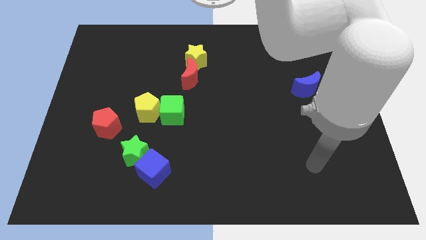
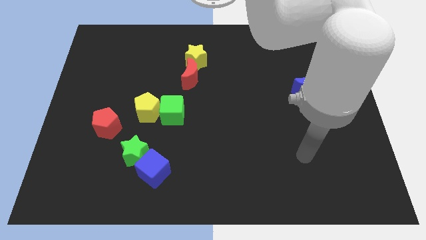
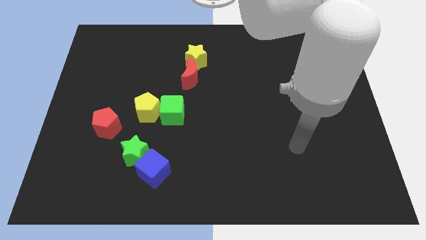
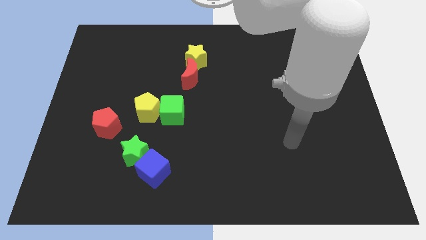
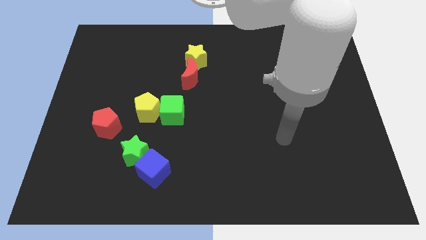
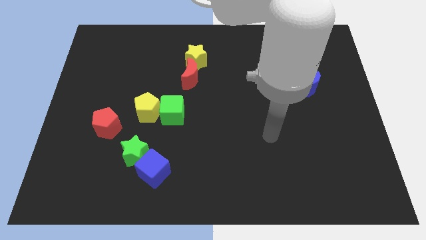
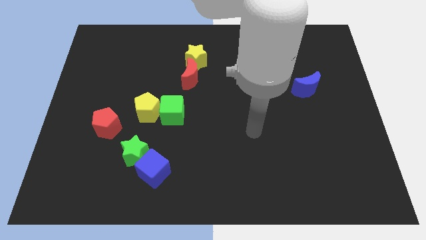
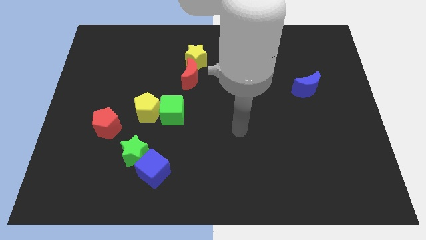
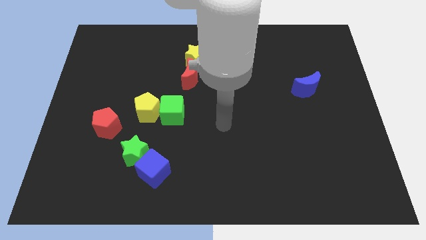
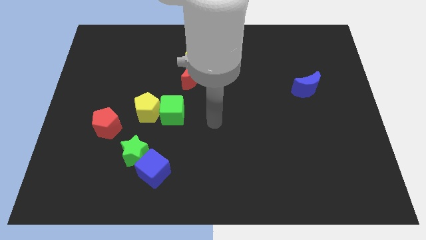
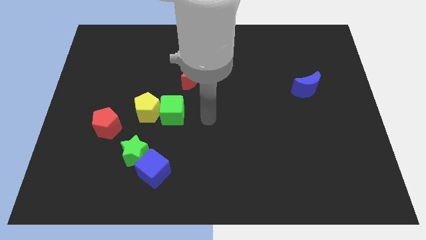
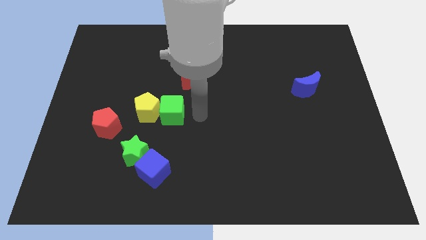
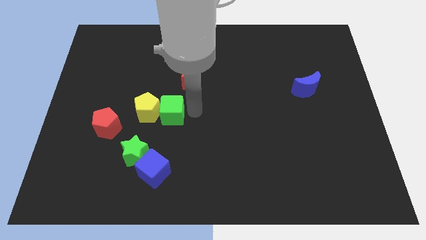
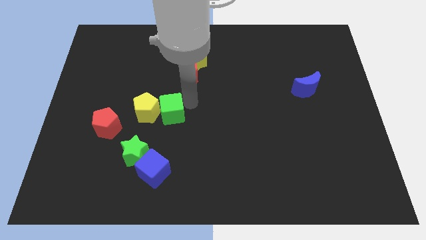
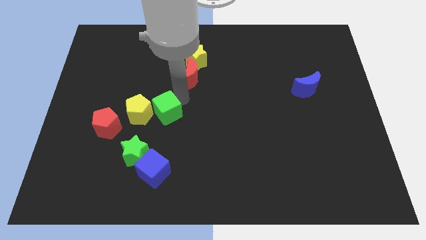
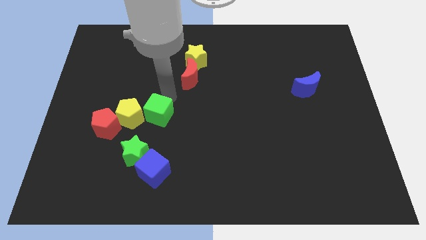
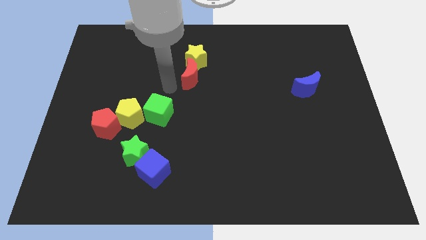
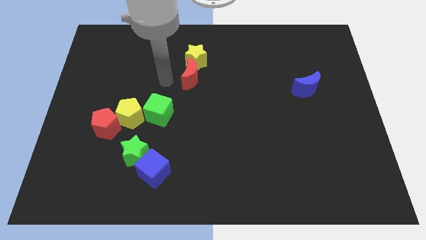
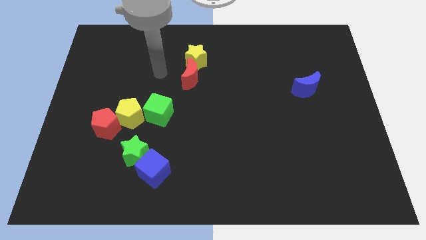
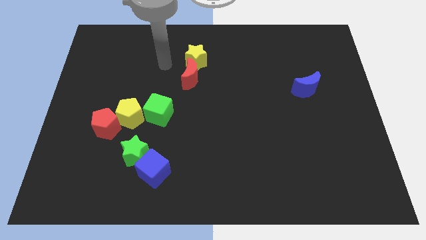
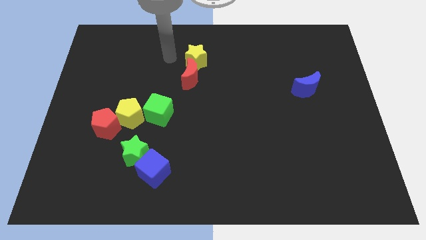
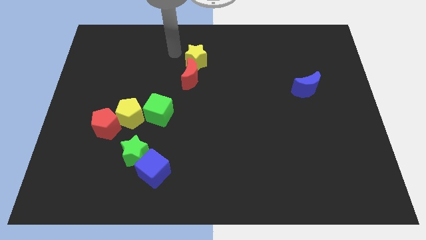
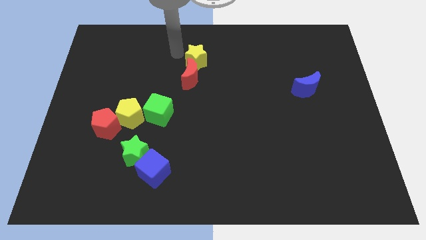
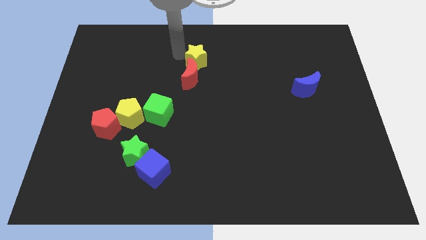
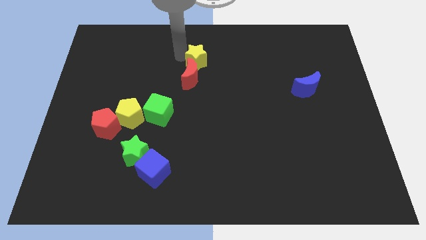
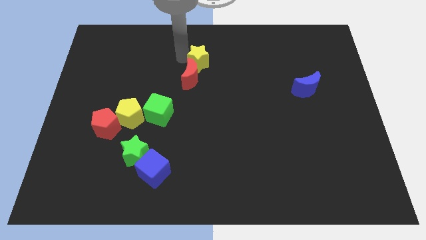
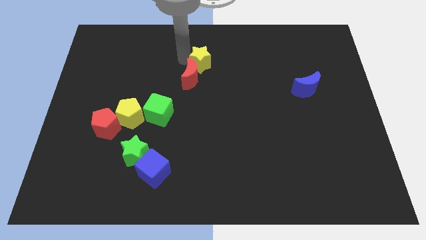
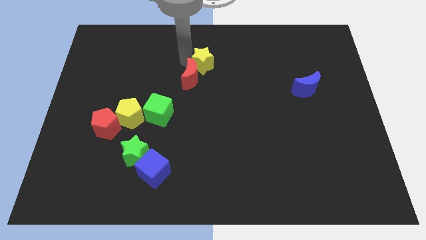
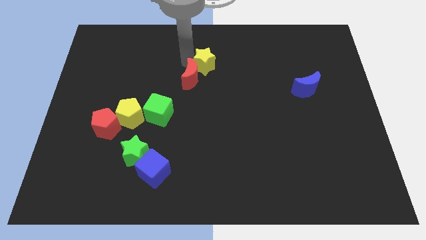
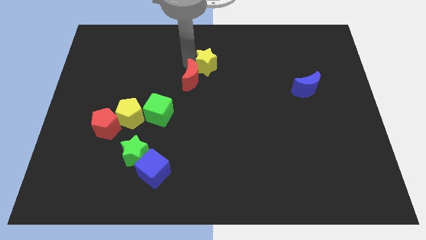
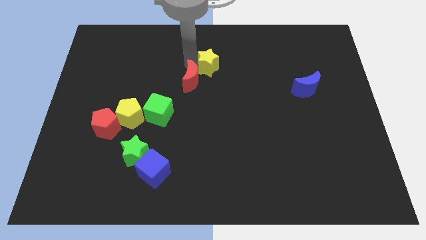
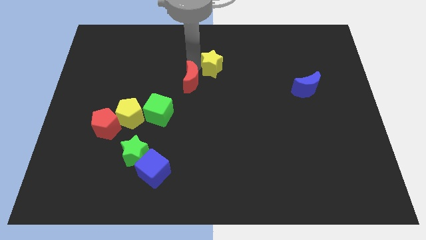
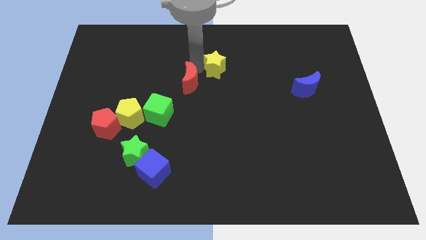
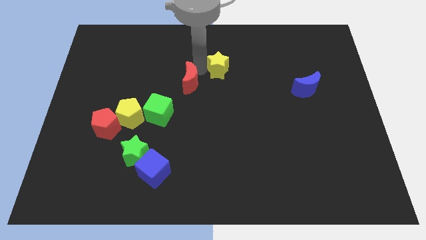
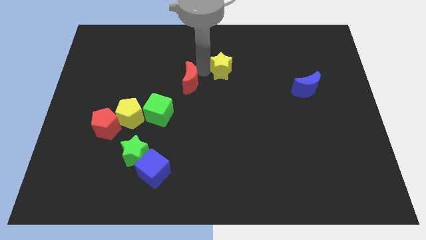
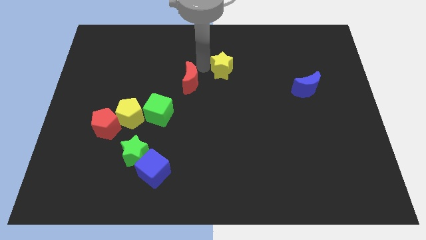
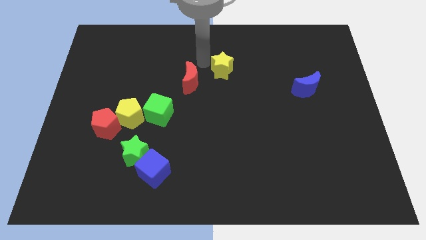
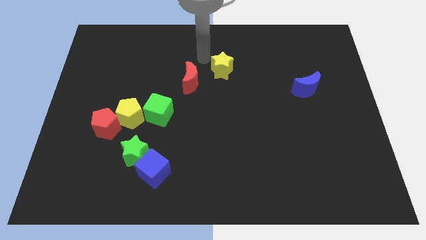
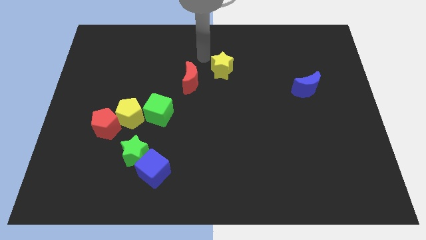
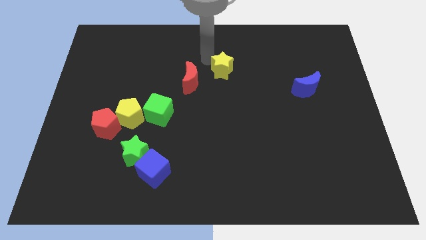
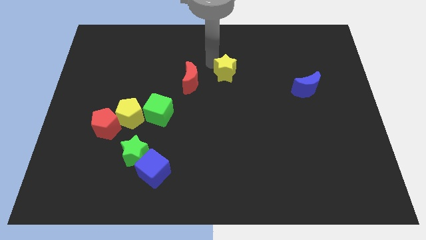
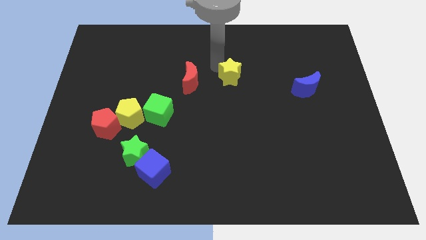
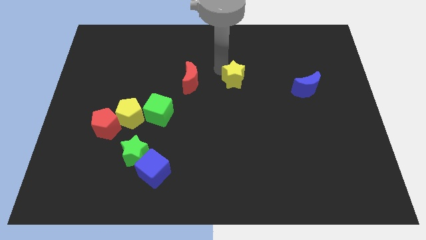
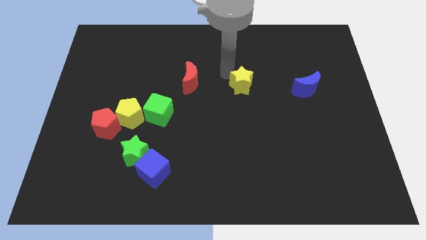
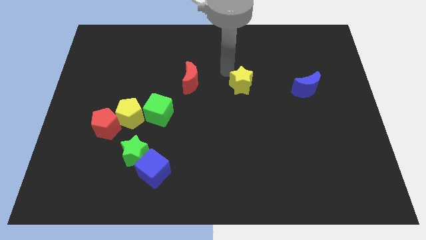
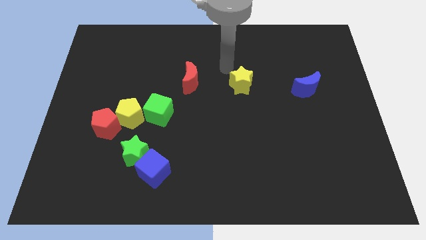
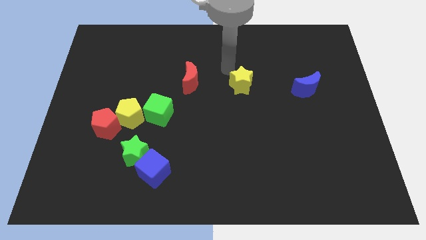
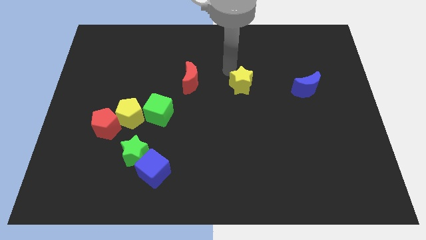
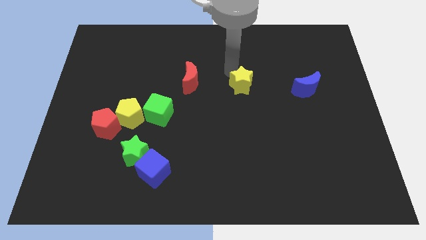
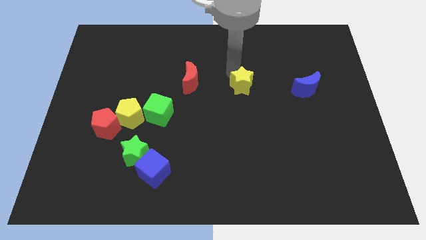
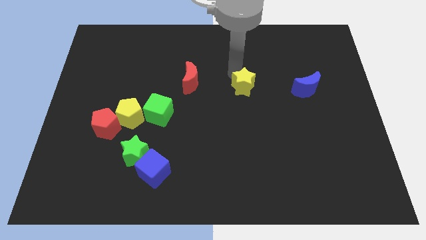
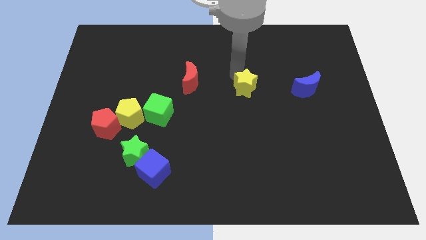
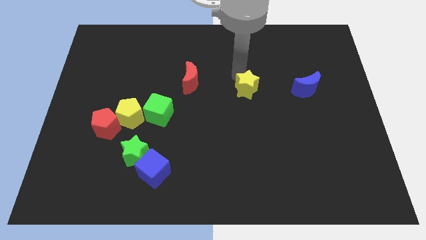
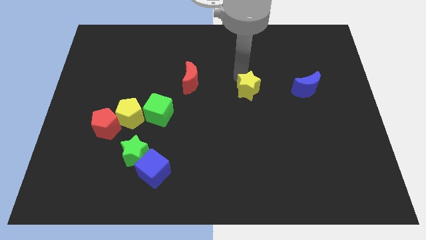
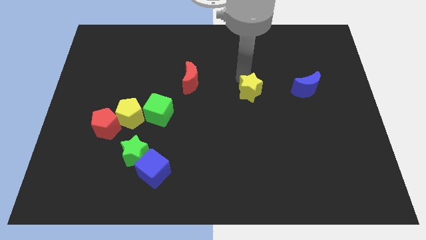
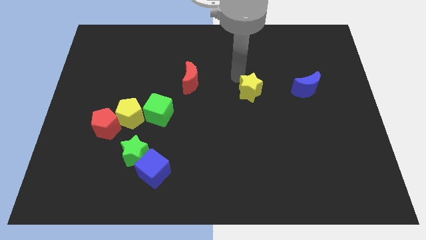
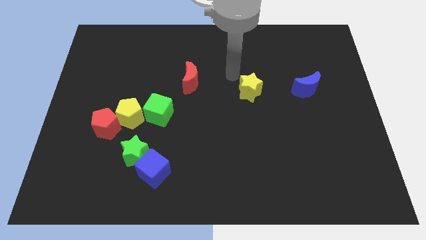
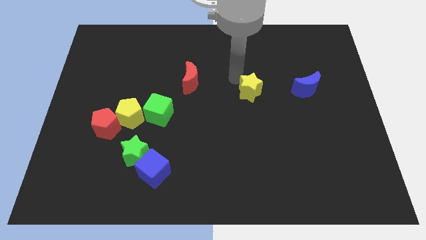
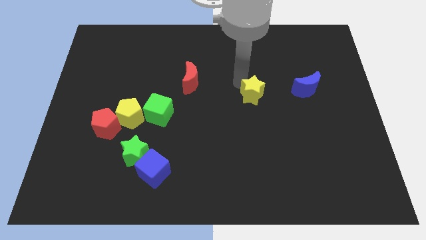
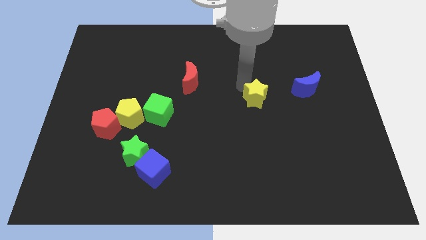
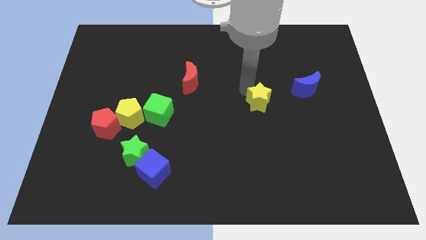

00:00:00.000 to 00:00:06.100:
move the yellow star downwards and right

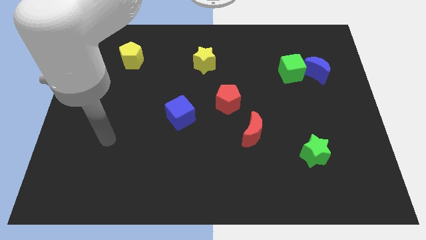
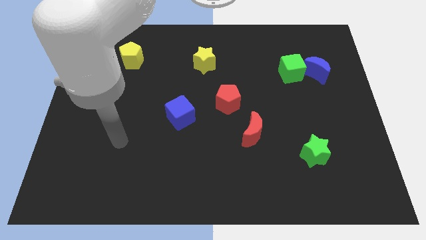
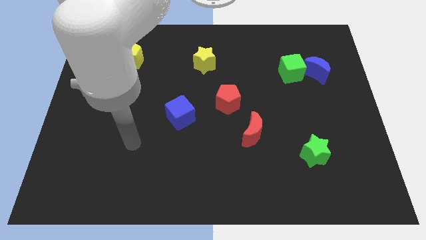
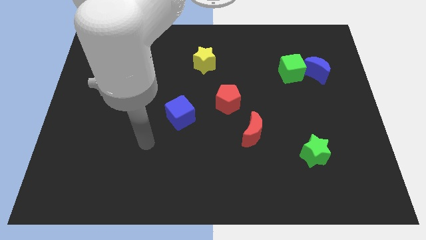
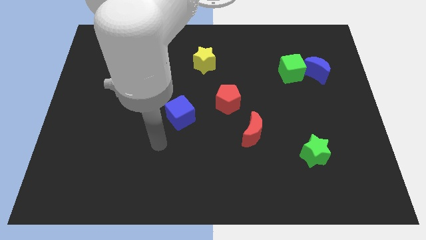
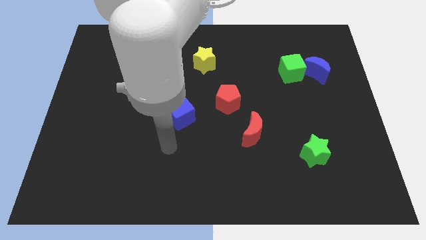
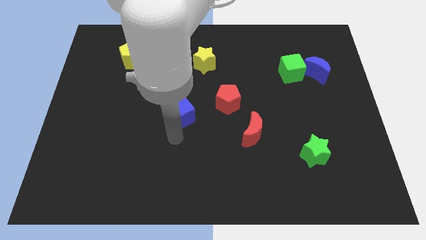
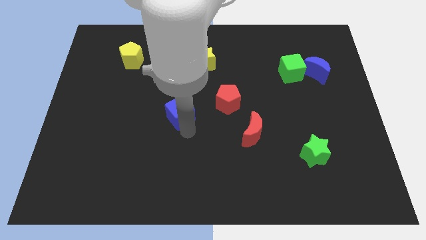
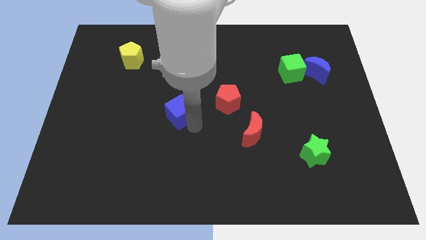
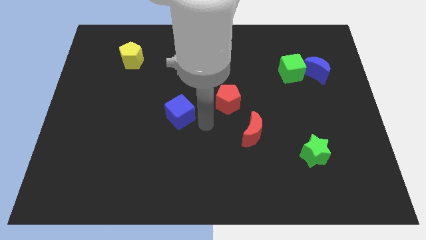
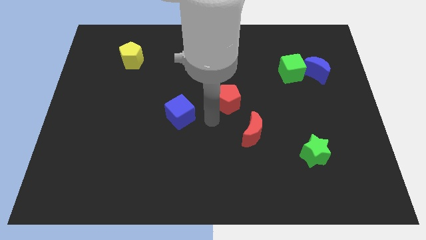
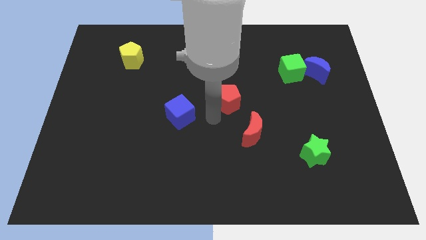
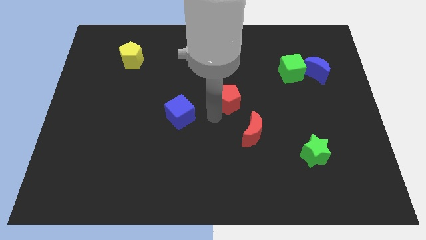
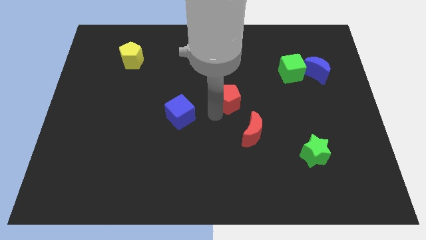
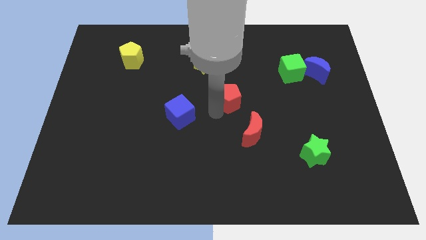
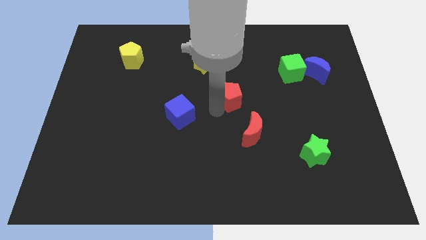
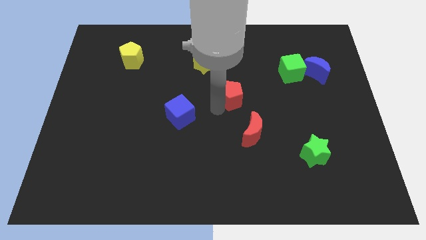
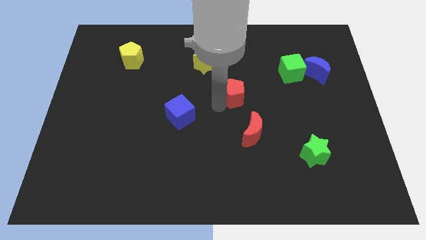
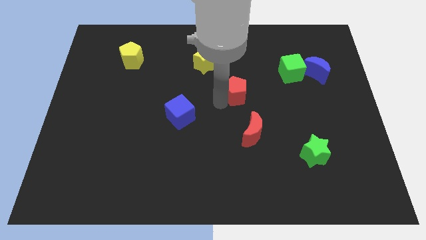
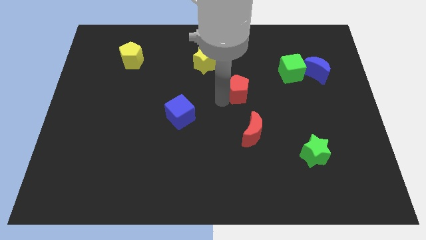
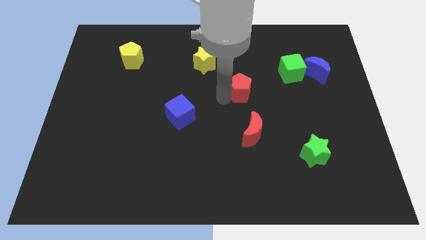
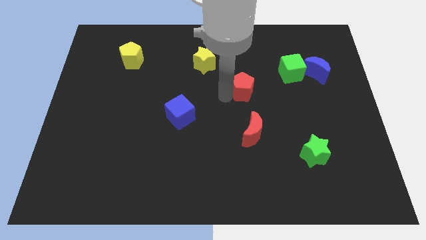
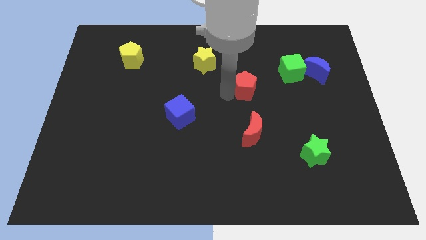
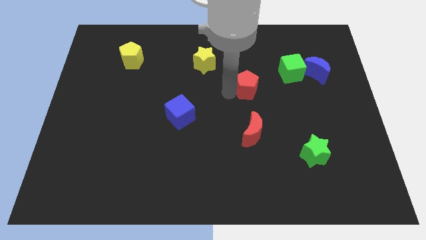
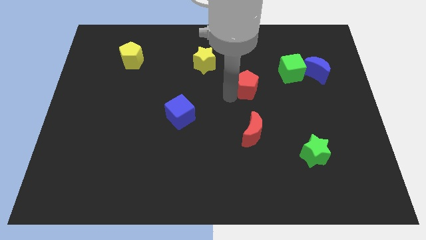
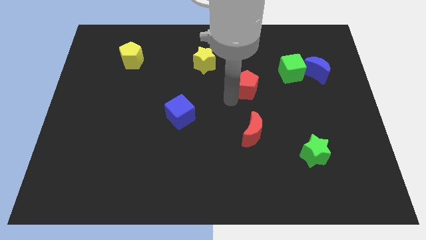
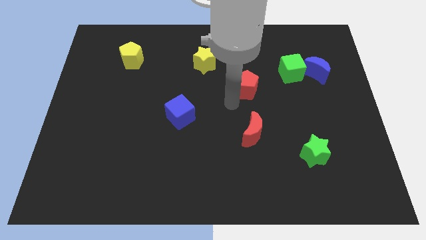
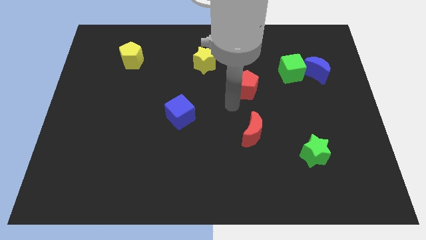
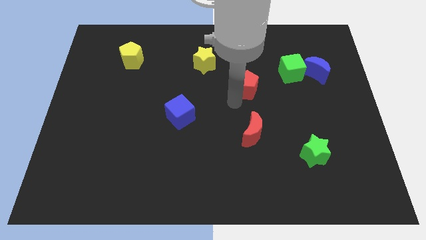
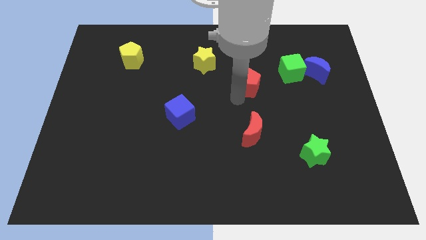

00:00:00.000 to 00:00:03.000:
slightly slide the red pentagon up and to the right diagonally
